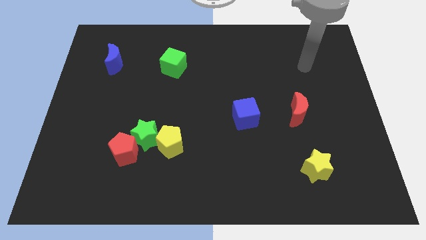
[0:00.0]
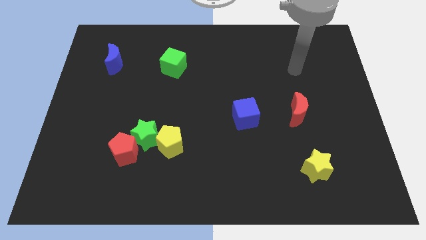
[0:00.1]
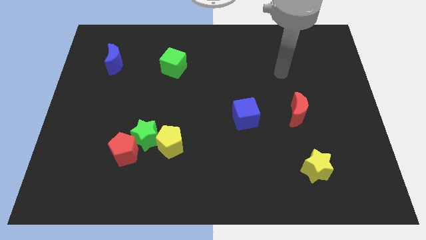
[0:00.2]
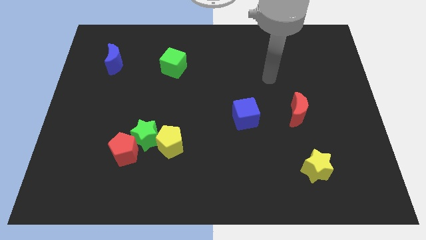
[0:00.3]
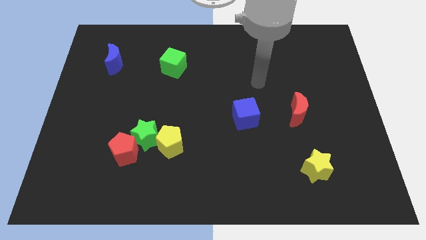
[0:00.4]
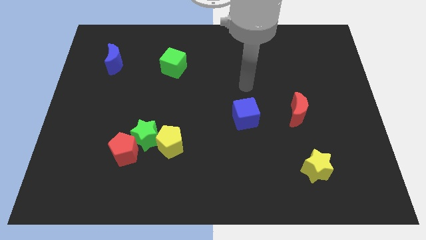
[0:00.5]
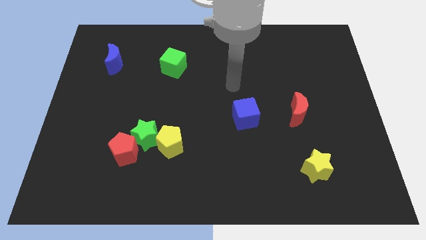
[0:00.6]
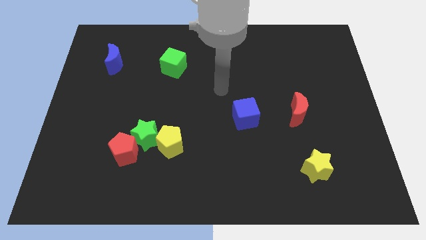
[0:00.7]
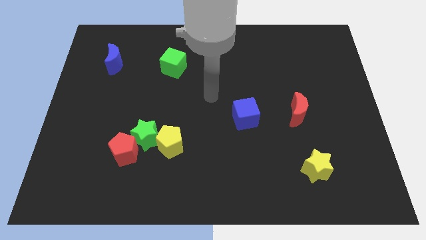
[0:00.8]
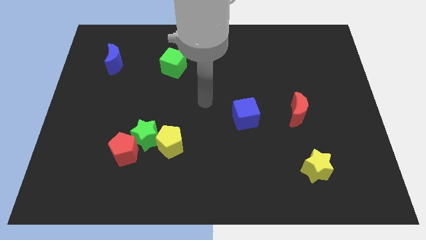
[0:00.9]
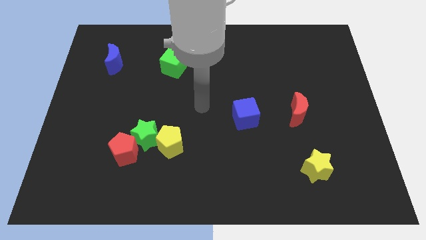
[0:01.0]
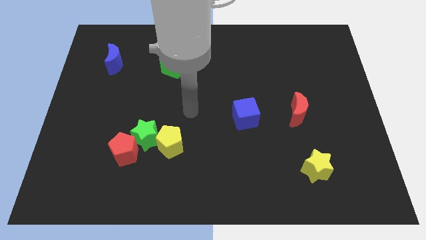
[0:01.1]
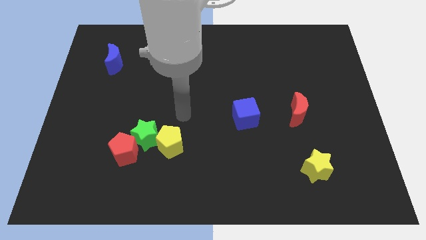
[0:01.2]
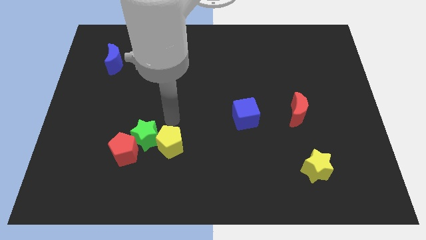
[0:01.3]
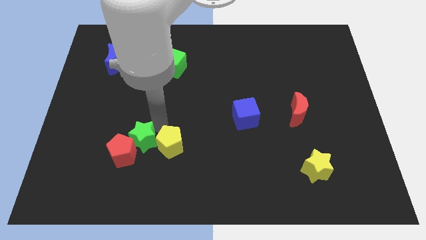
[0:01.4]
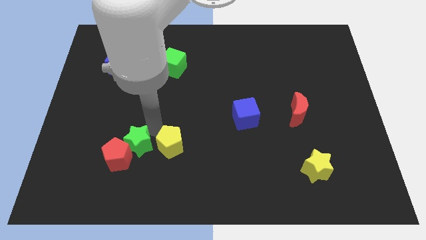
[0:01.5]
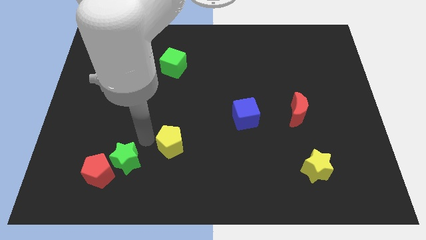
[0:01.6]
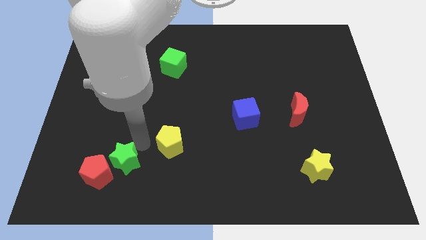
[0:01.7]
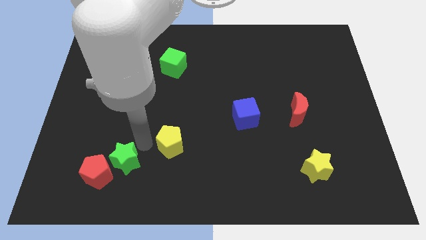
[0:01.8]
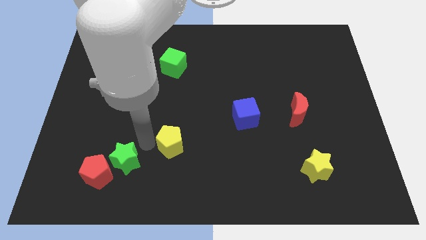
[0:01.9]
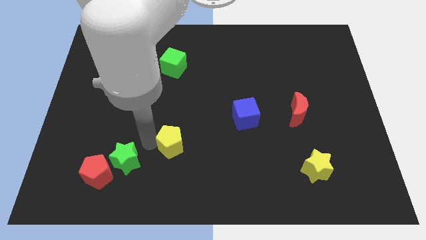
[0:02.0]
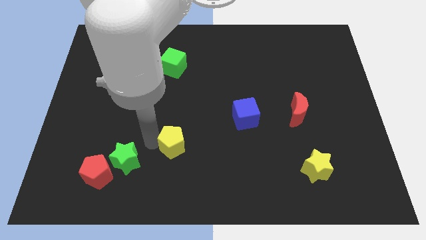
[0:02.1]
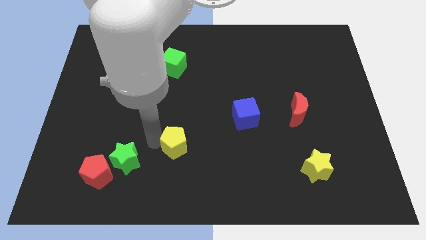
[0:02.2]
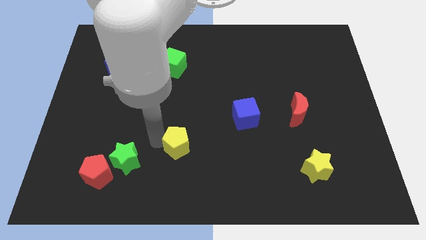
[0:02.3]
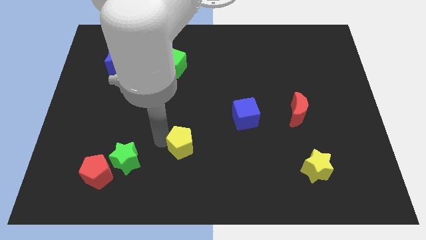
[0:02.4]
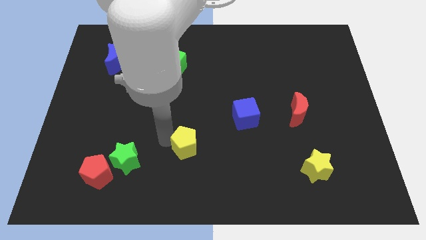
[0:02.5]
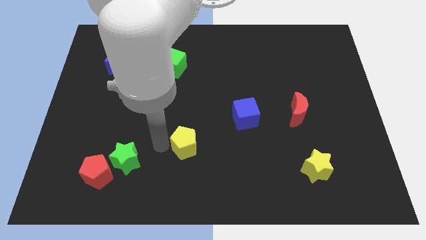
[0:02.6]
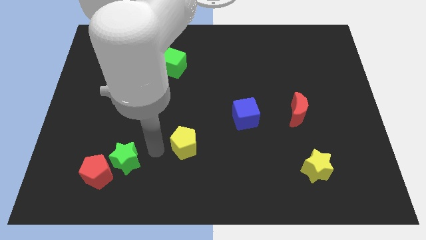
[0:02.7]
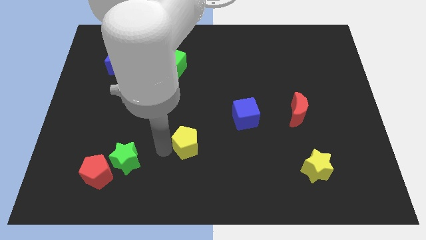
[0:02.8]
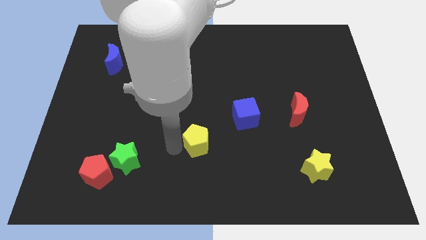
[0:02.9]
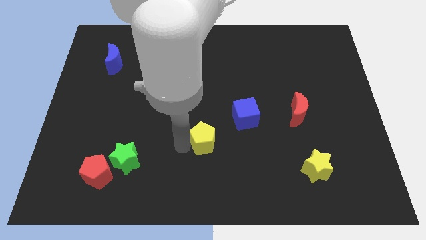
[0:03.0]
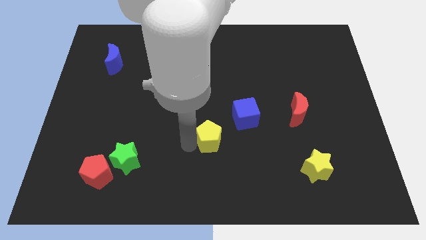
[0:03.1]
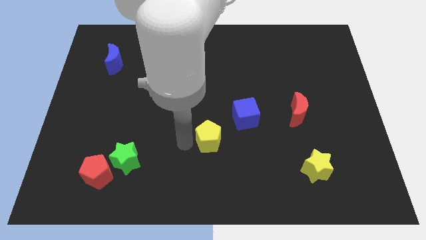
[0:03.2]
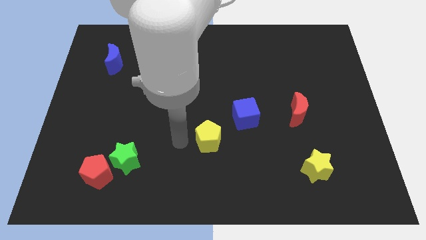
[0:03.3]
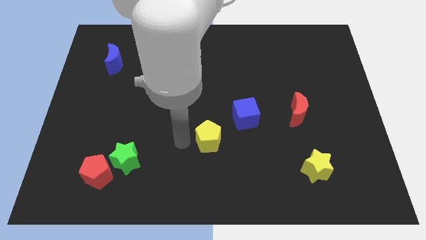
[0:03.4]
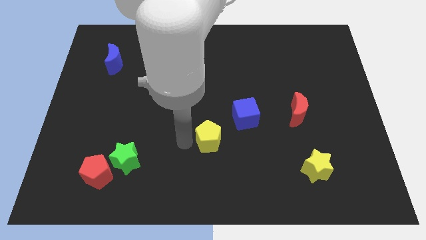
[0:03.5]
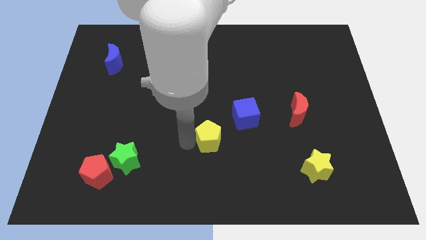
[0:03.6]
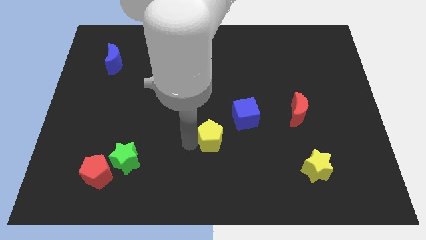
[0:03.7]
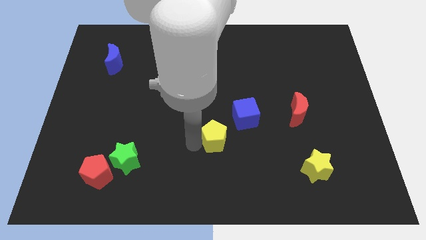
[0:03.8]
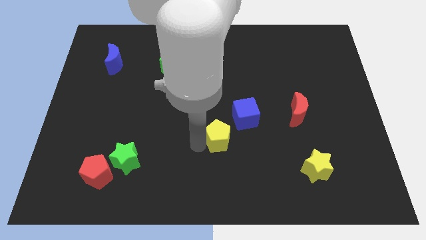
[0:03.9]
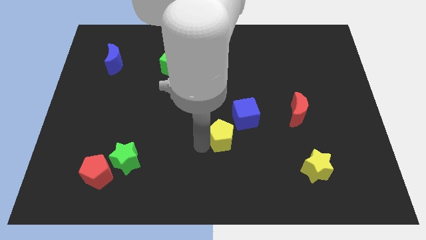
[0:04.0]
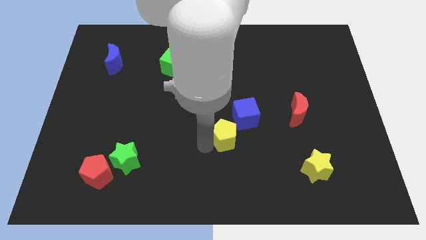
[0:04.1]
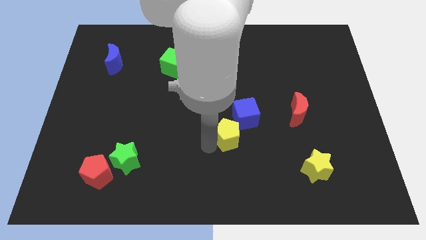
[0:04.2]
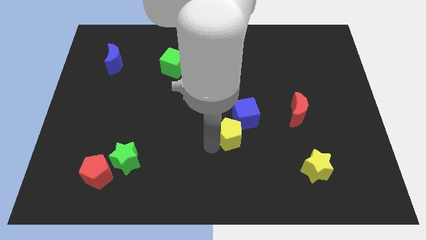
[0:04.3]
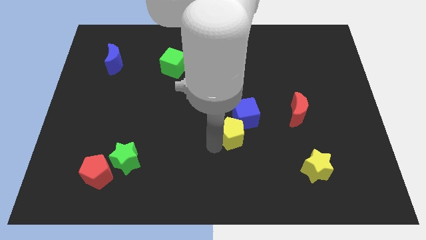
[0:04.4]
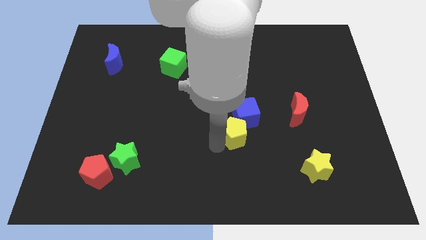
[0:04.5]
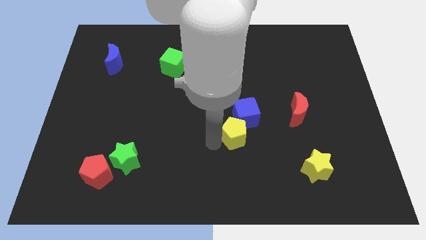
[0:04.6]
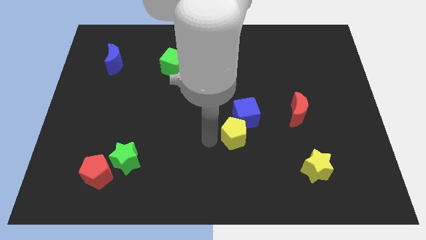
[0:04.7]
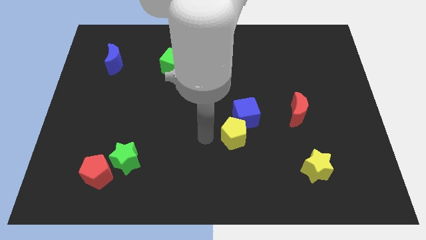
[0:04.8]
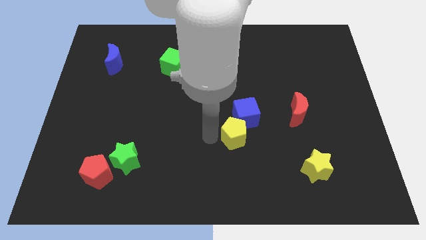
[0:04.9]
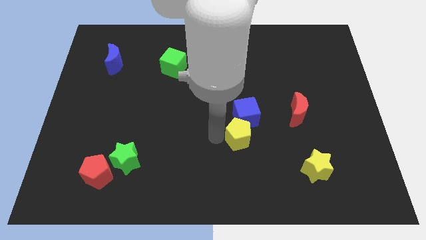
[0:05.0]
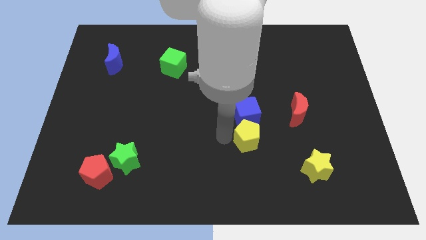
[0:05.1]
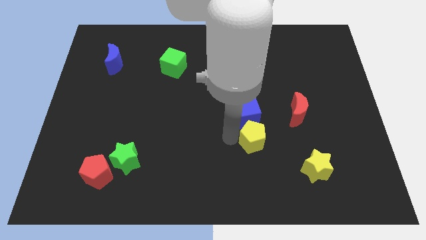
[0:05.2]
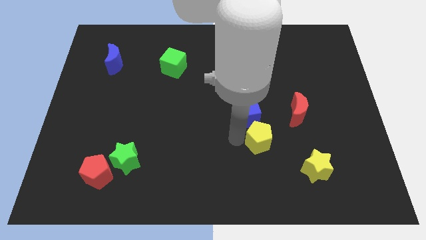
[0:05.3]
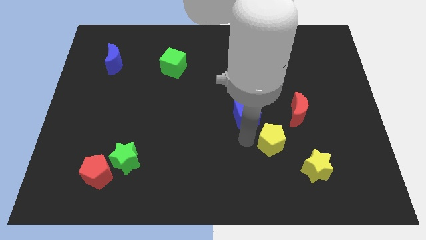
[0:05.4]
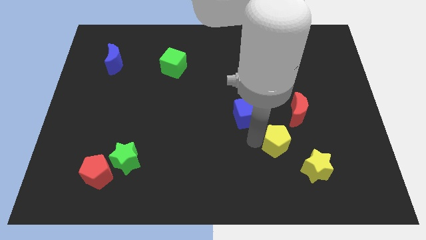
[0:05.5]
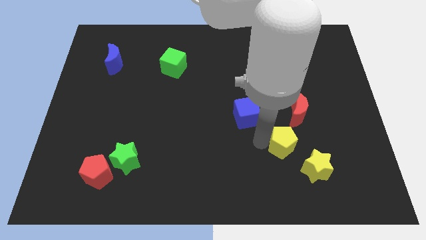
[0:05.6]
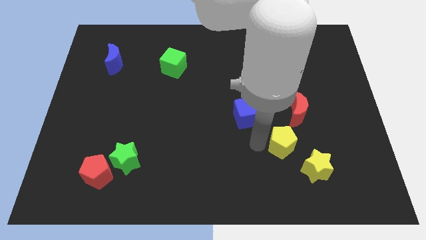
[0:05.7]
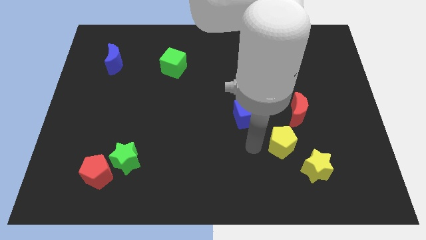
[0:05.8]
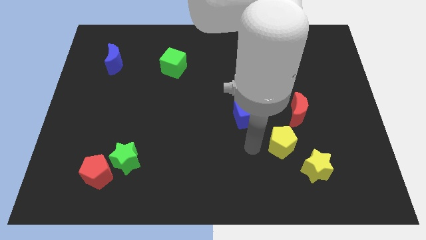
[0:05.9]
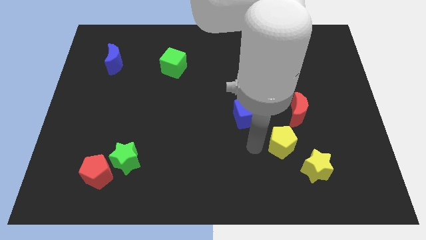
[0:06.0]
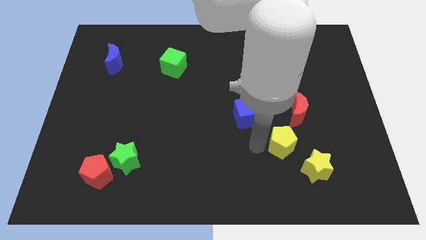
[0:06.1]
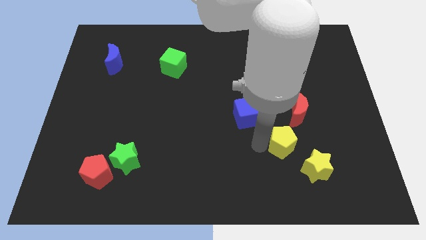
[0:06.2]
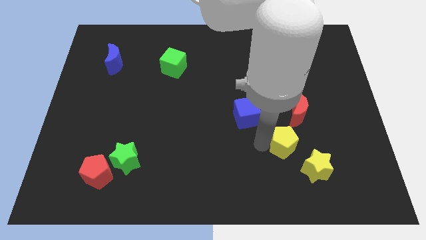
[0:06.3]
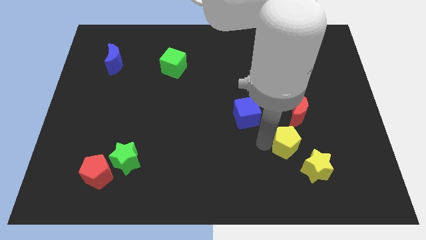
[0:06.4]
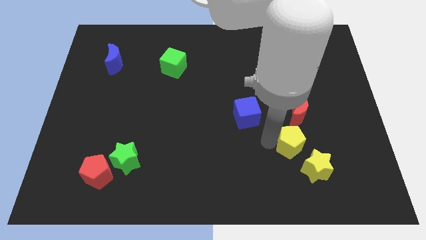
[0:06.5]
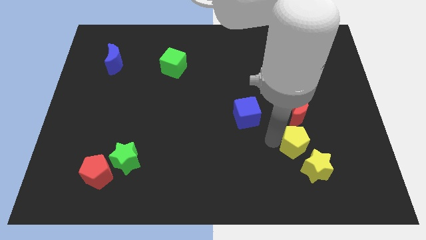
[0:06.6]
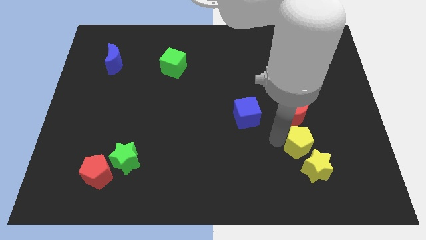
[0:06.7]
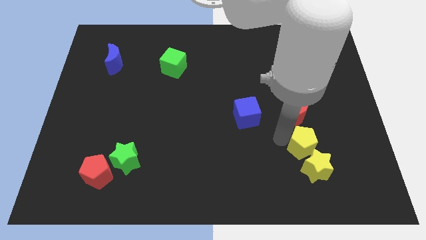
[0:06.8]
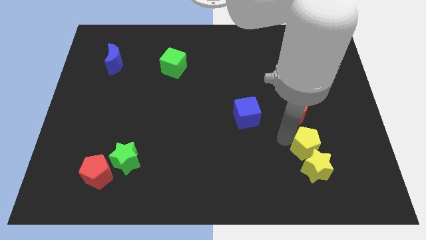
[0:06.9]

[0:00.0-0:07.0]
push the yellow pentagon to the top right side of the yellow star
